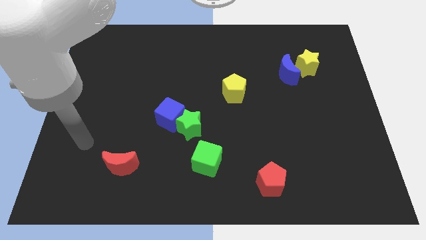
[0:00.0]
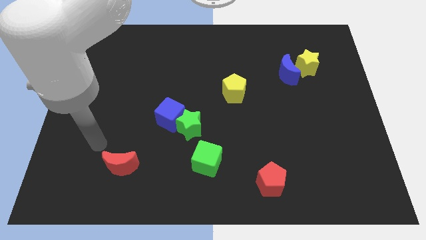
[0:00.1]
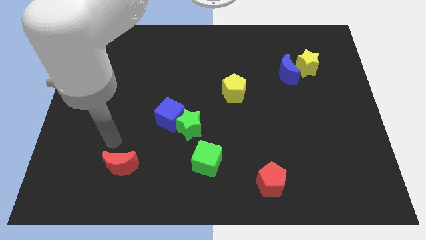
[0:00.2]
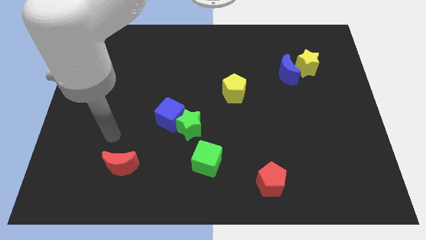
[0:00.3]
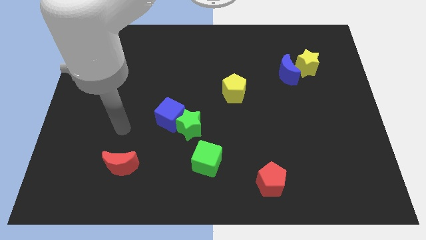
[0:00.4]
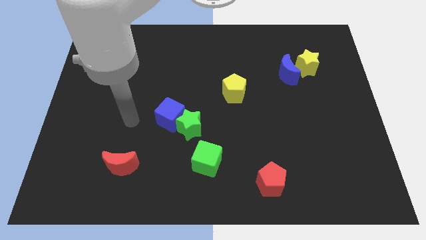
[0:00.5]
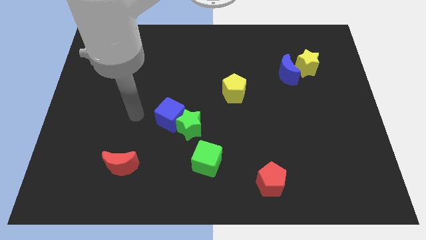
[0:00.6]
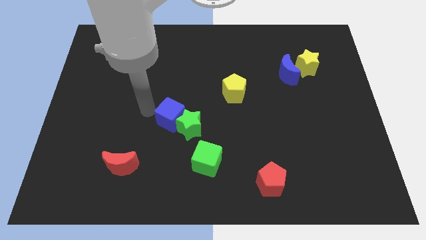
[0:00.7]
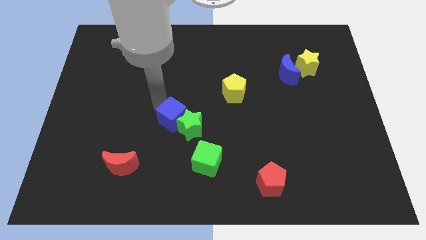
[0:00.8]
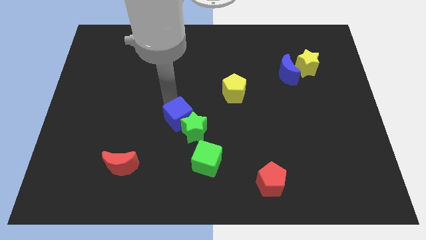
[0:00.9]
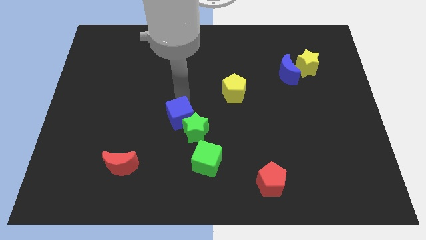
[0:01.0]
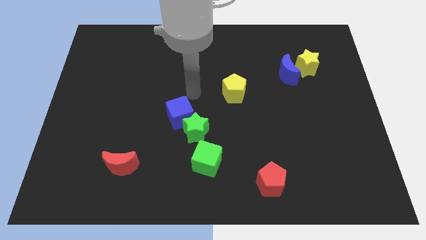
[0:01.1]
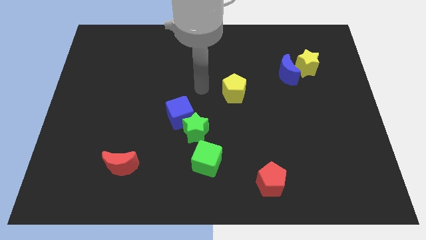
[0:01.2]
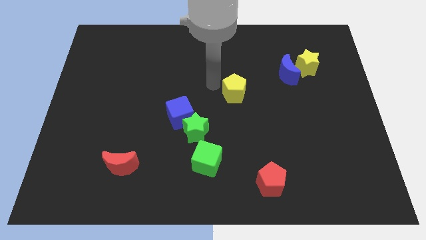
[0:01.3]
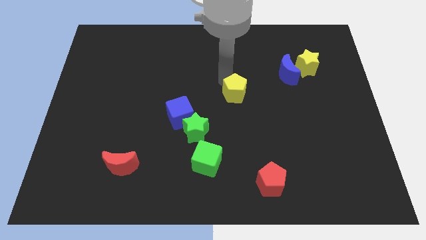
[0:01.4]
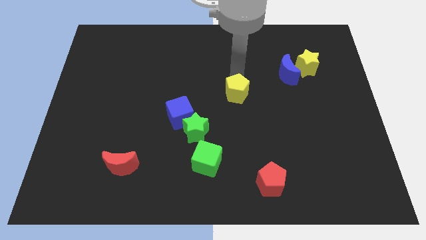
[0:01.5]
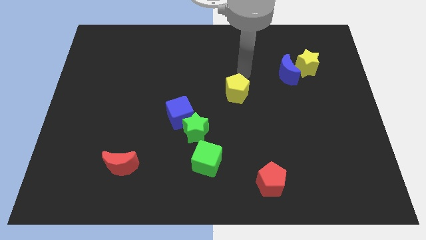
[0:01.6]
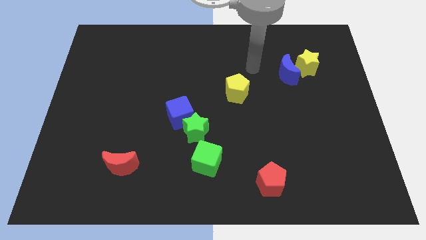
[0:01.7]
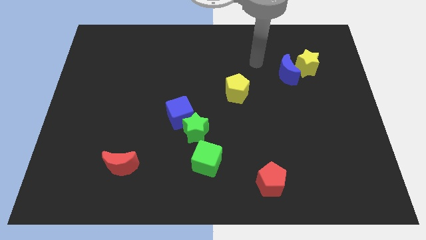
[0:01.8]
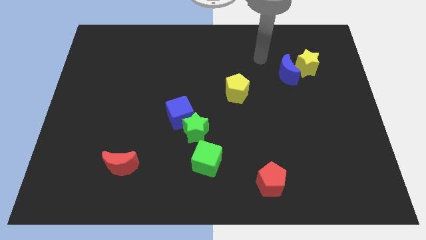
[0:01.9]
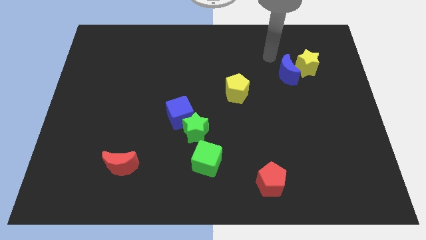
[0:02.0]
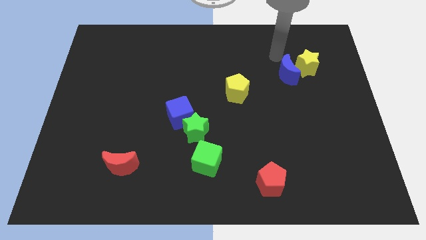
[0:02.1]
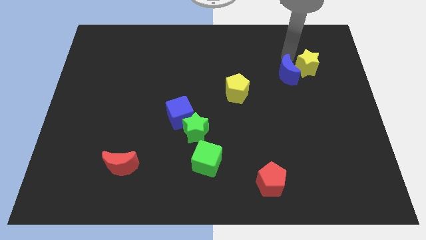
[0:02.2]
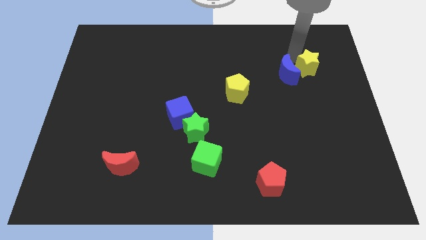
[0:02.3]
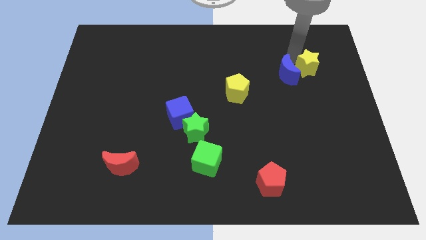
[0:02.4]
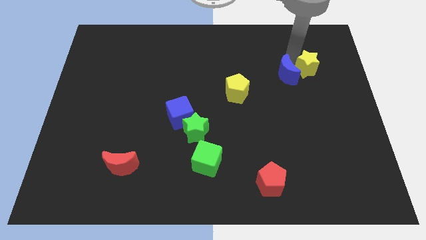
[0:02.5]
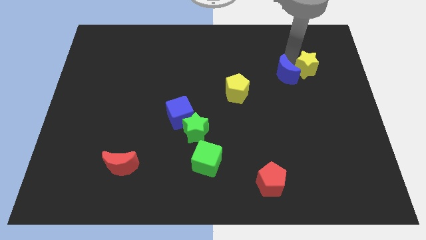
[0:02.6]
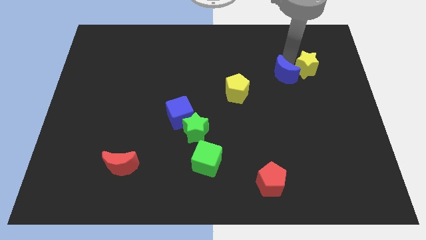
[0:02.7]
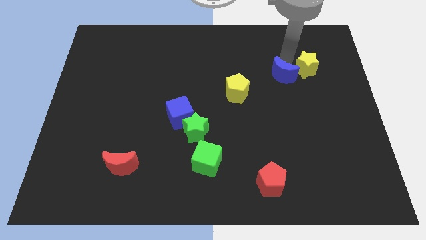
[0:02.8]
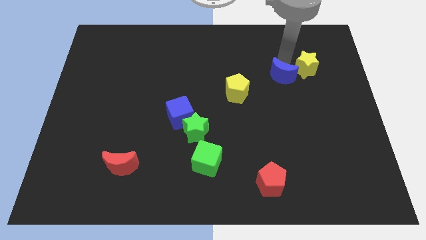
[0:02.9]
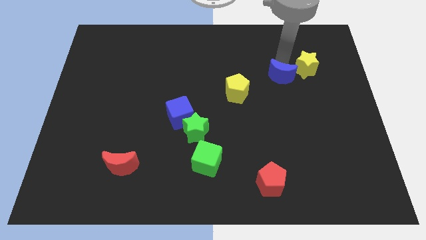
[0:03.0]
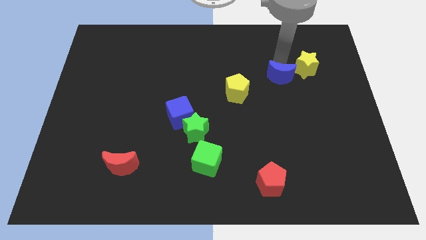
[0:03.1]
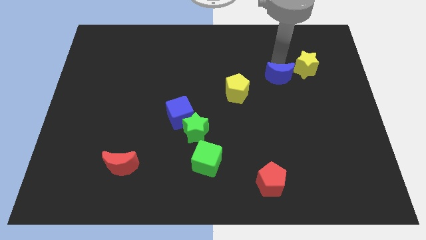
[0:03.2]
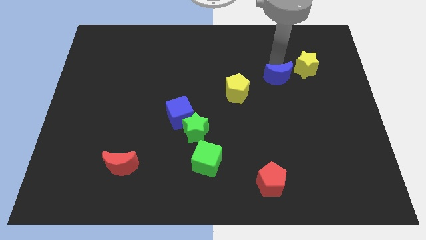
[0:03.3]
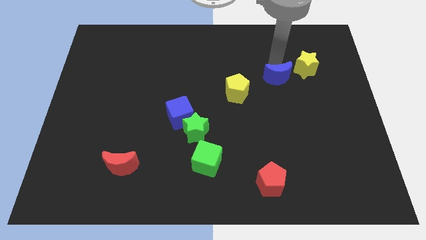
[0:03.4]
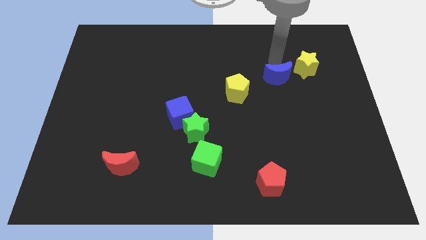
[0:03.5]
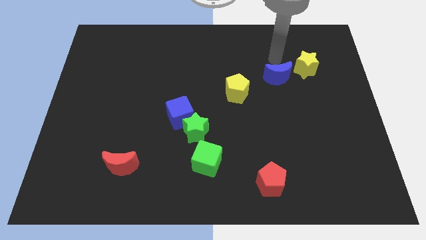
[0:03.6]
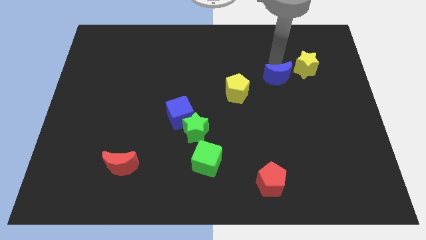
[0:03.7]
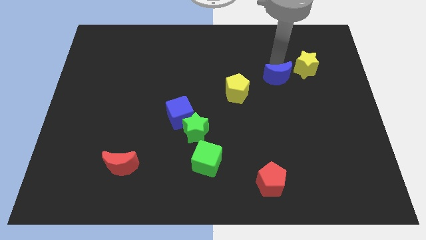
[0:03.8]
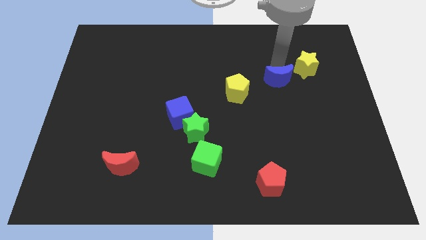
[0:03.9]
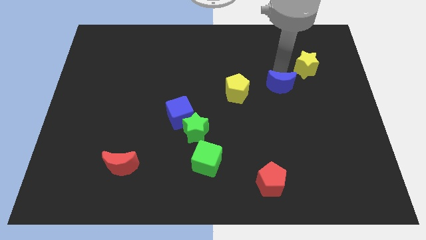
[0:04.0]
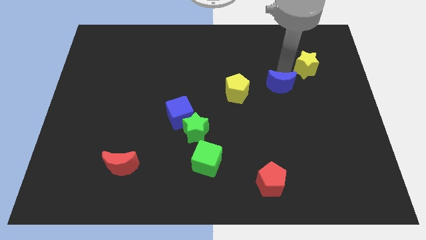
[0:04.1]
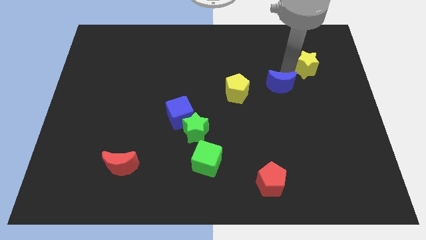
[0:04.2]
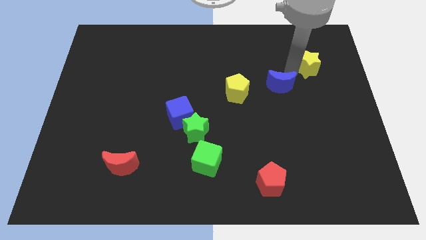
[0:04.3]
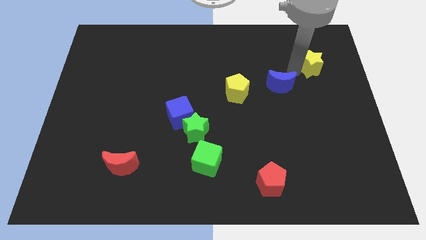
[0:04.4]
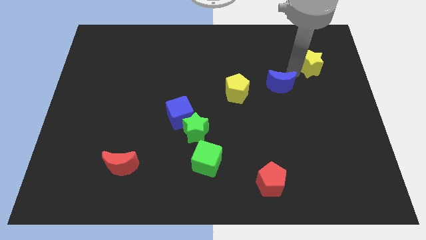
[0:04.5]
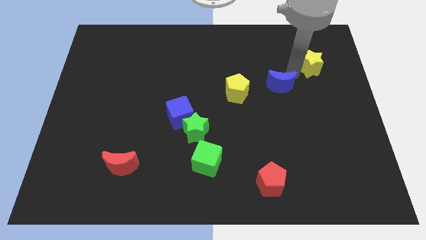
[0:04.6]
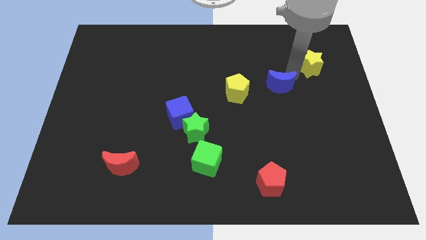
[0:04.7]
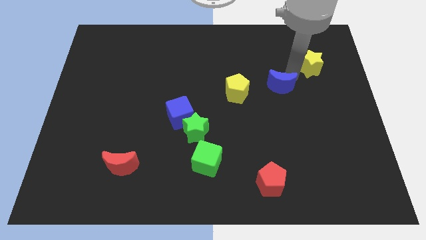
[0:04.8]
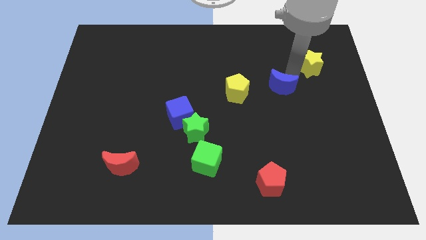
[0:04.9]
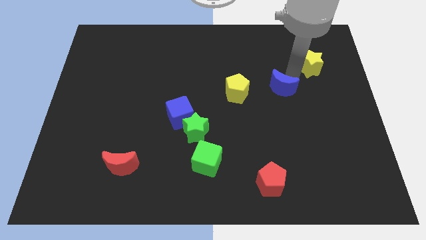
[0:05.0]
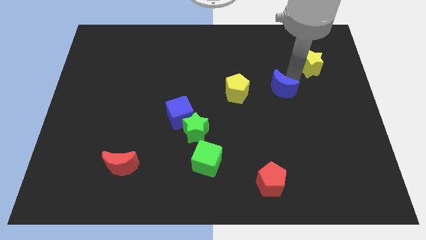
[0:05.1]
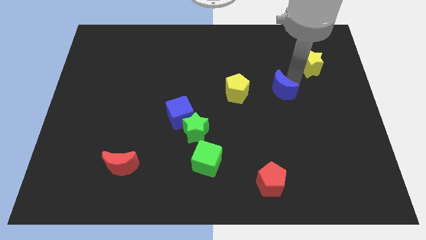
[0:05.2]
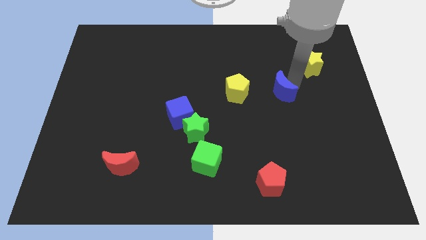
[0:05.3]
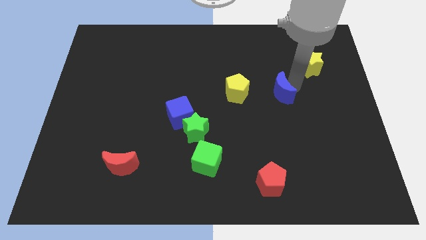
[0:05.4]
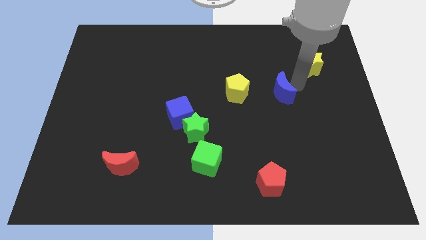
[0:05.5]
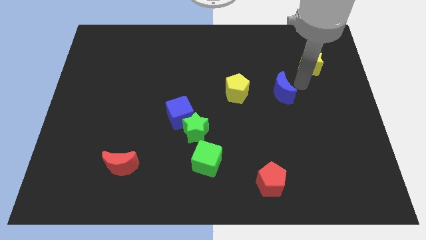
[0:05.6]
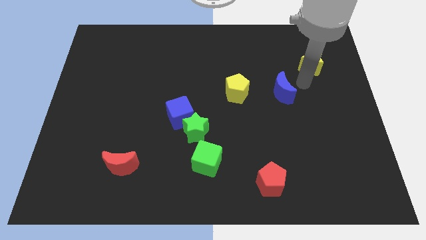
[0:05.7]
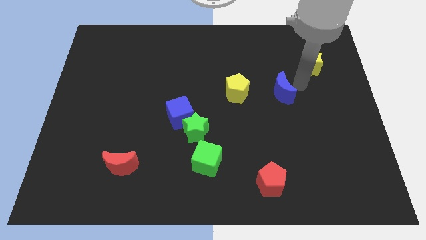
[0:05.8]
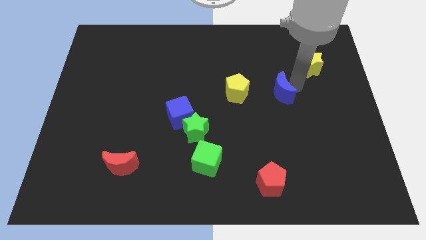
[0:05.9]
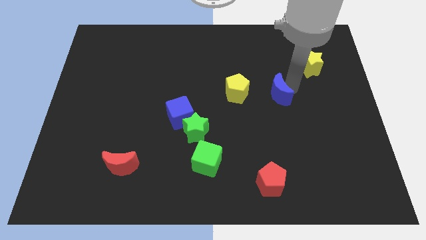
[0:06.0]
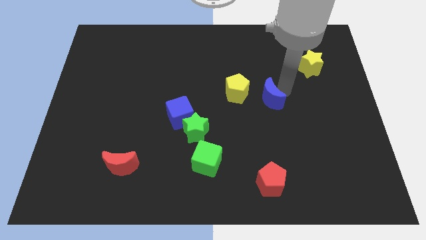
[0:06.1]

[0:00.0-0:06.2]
move the blue moon a little down and then to the left

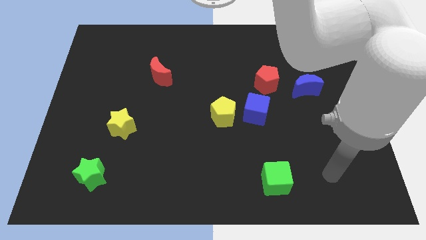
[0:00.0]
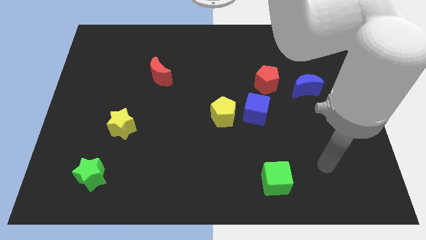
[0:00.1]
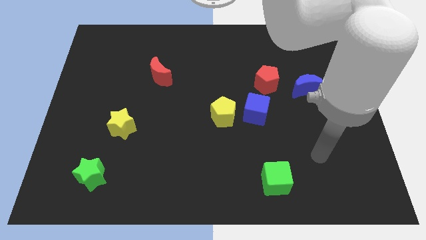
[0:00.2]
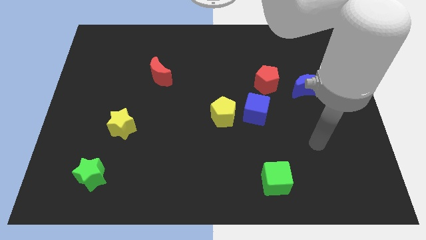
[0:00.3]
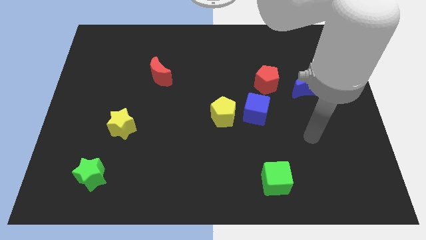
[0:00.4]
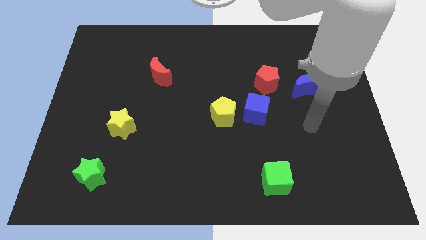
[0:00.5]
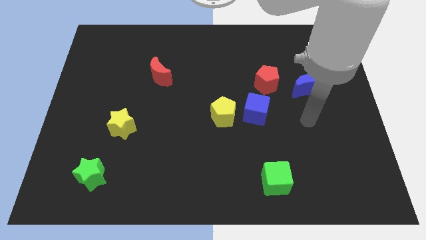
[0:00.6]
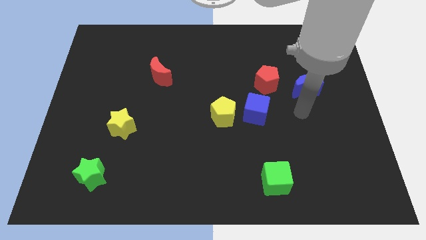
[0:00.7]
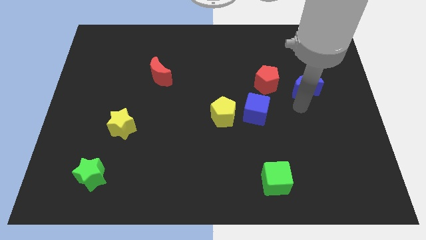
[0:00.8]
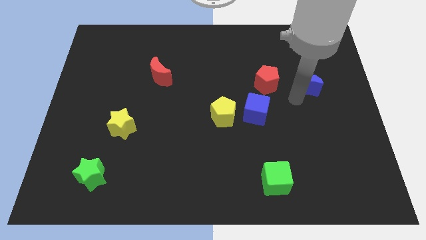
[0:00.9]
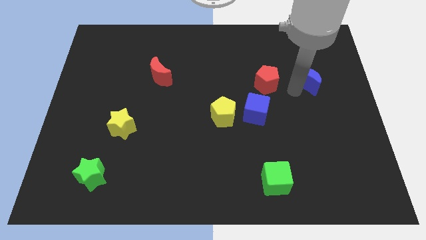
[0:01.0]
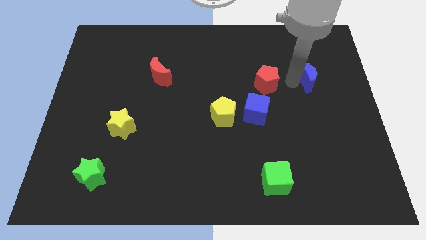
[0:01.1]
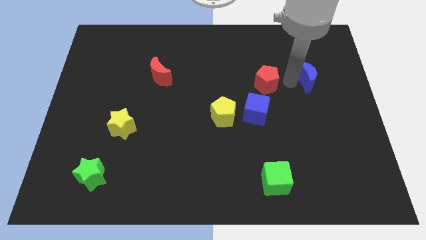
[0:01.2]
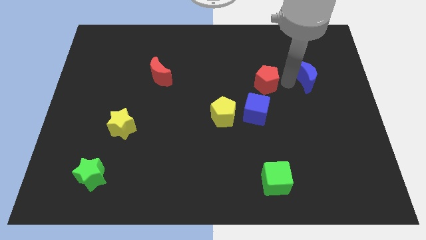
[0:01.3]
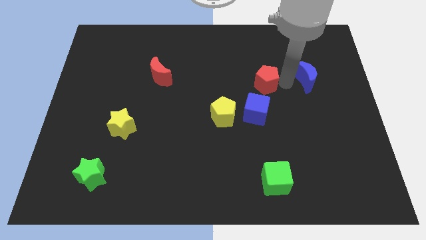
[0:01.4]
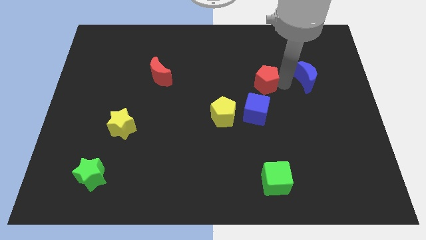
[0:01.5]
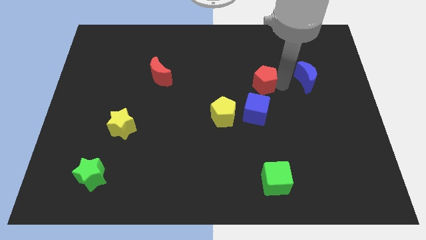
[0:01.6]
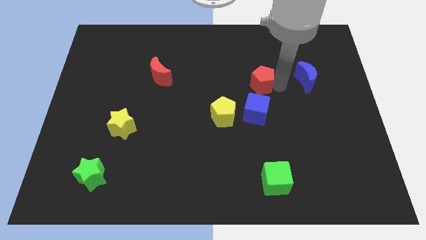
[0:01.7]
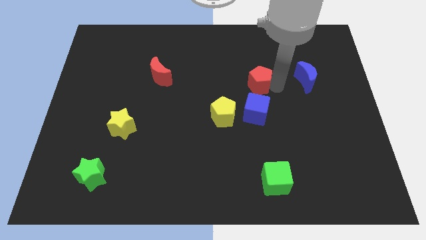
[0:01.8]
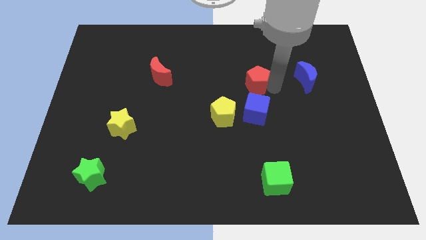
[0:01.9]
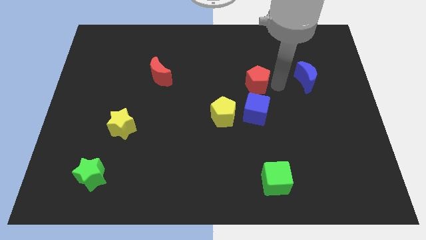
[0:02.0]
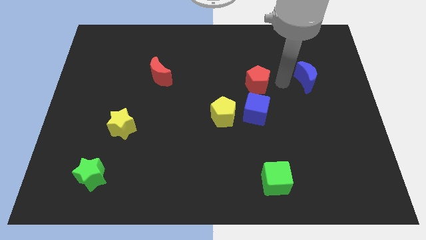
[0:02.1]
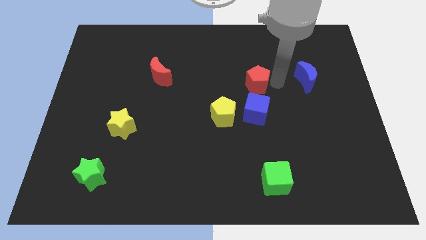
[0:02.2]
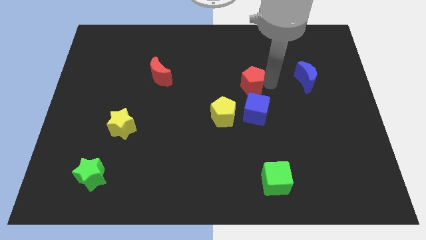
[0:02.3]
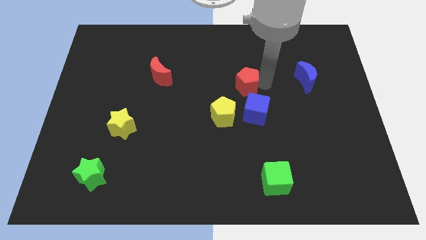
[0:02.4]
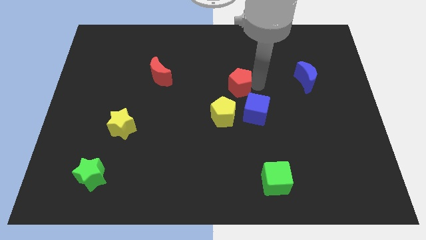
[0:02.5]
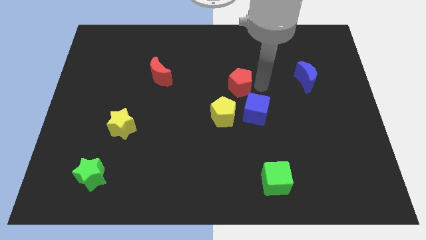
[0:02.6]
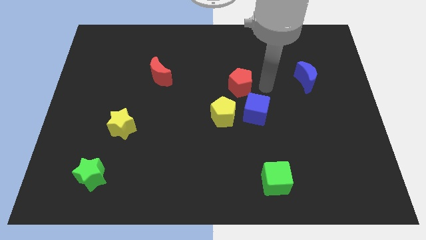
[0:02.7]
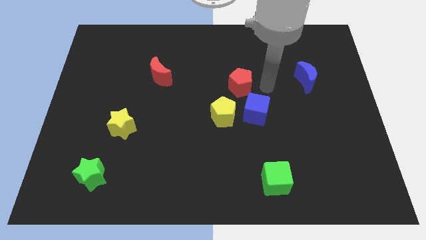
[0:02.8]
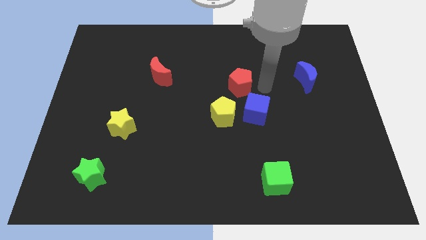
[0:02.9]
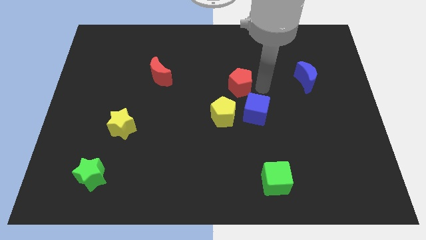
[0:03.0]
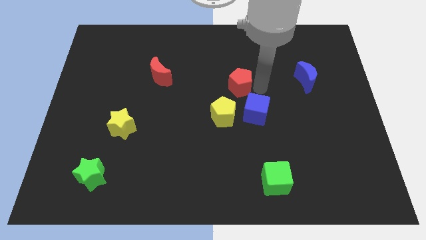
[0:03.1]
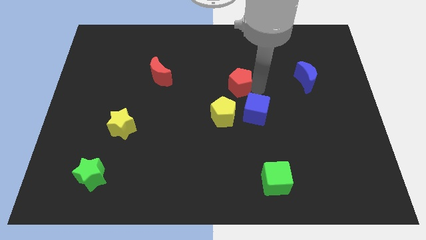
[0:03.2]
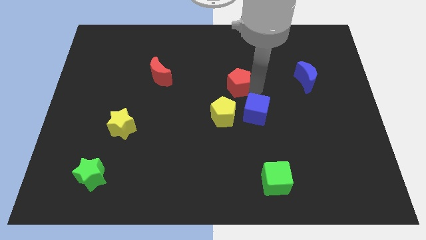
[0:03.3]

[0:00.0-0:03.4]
slightly push the red pentagon left
